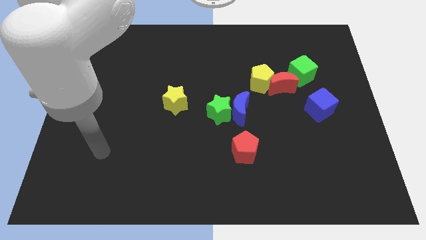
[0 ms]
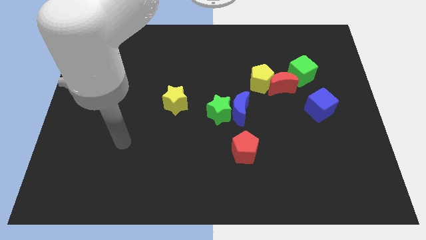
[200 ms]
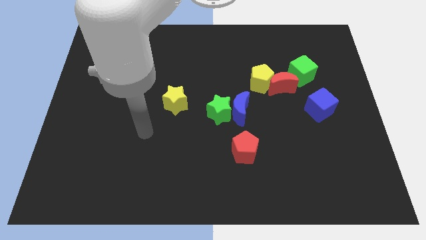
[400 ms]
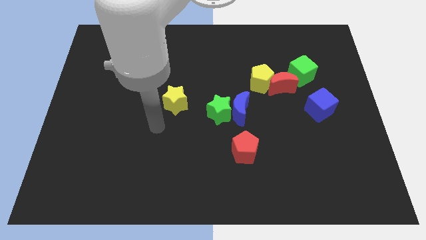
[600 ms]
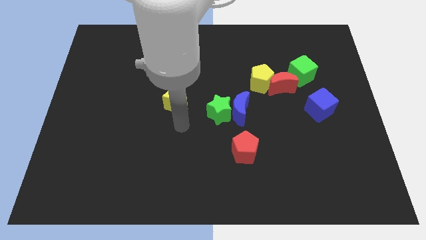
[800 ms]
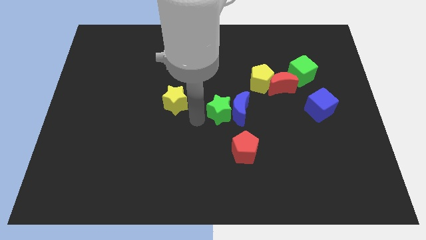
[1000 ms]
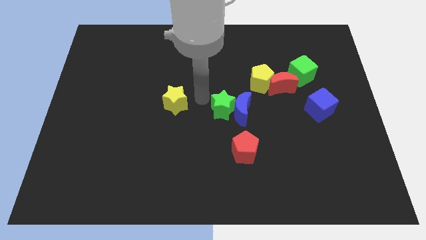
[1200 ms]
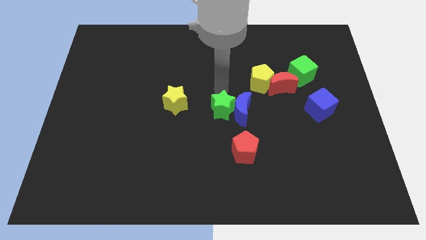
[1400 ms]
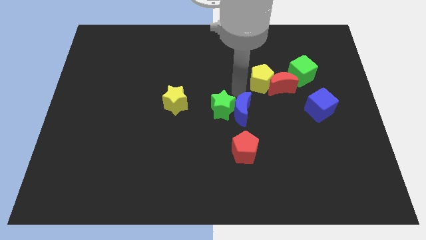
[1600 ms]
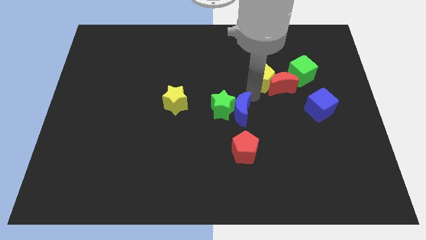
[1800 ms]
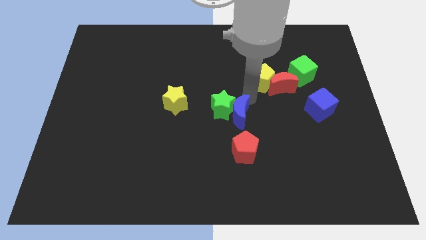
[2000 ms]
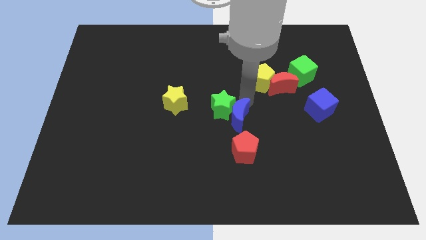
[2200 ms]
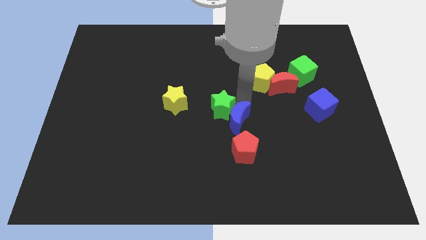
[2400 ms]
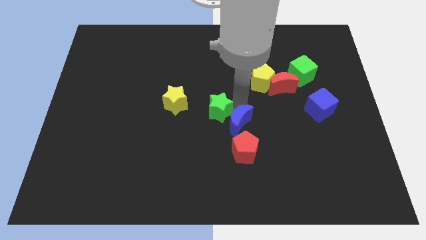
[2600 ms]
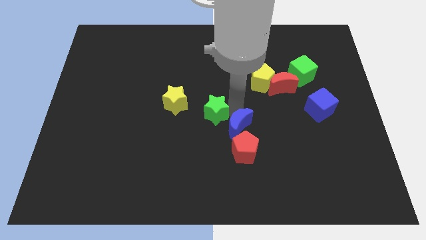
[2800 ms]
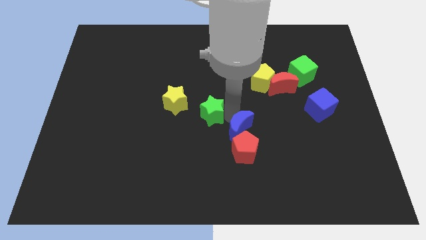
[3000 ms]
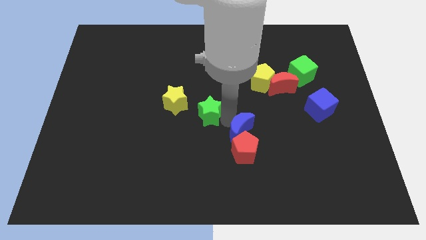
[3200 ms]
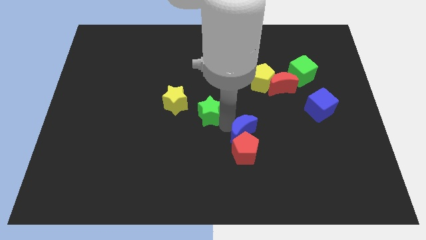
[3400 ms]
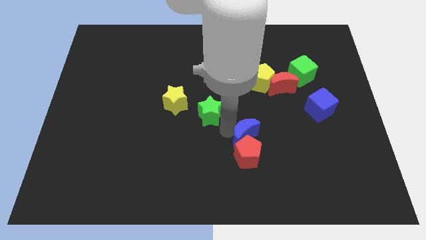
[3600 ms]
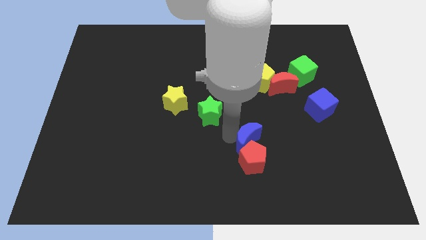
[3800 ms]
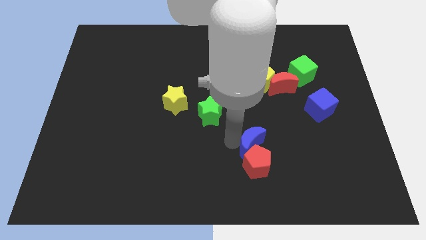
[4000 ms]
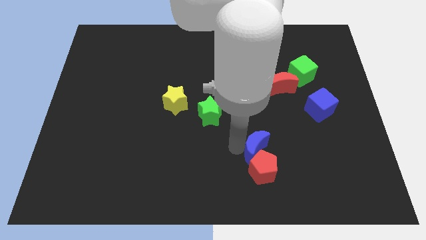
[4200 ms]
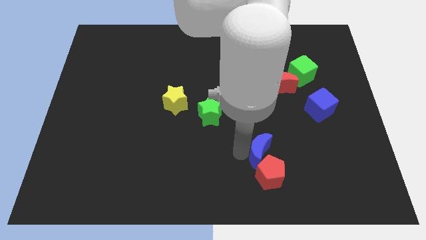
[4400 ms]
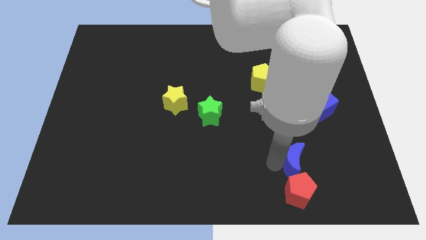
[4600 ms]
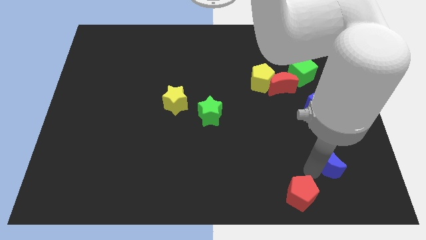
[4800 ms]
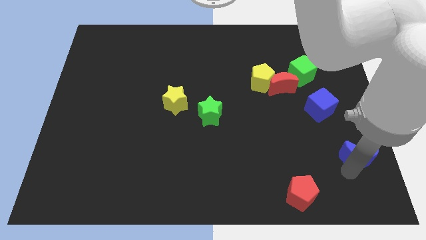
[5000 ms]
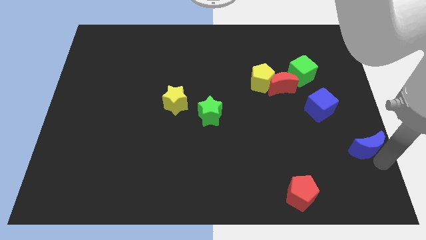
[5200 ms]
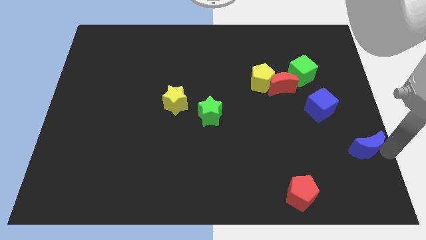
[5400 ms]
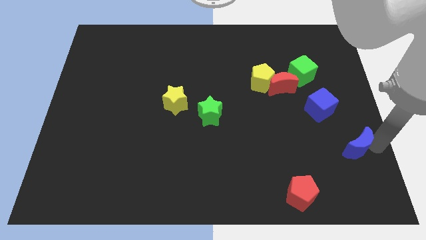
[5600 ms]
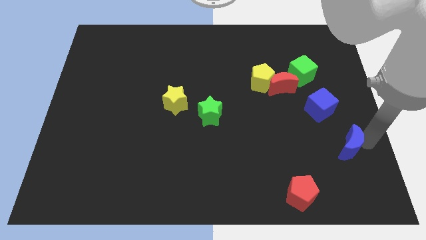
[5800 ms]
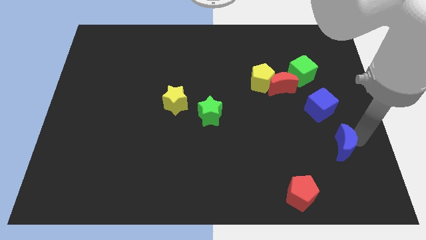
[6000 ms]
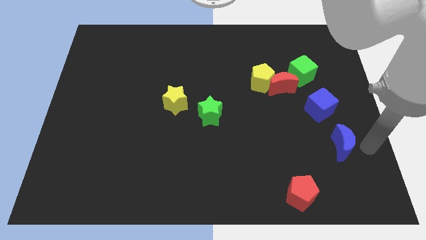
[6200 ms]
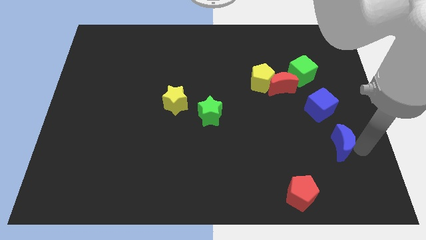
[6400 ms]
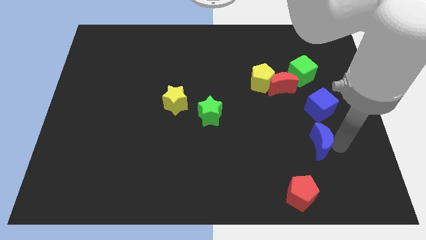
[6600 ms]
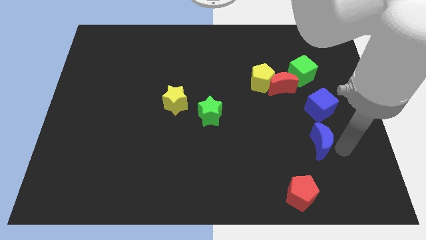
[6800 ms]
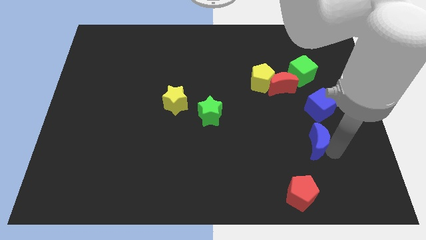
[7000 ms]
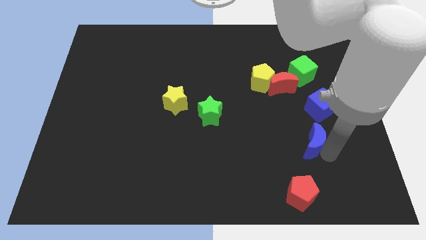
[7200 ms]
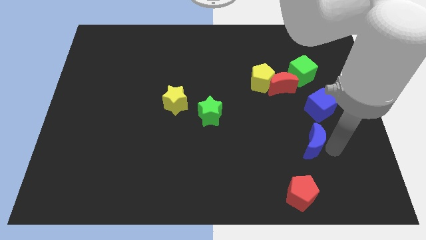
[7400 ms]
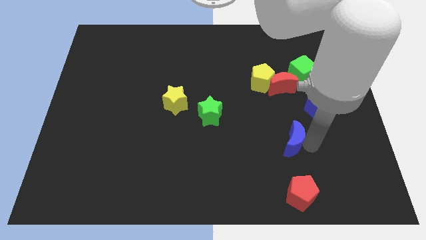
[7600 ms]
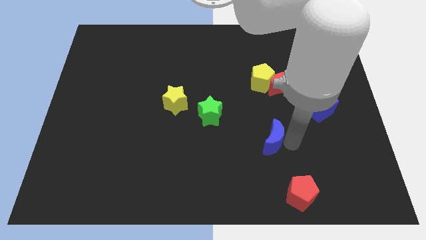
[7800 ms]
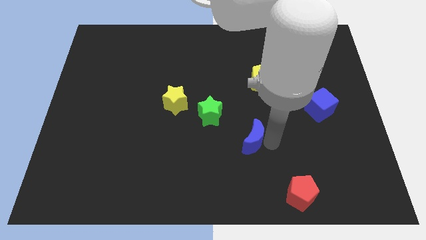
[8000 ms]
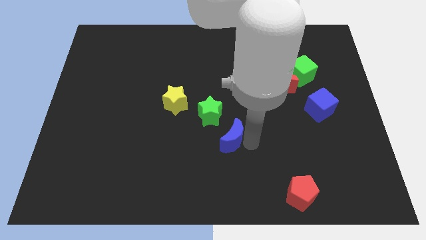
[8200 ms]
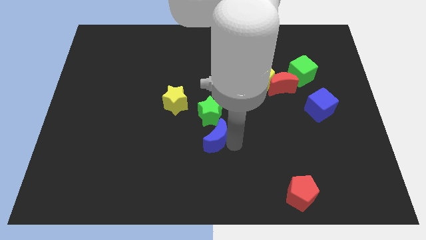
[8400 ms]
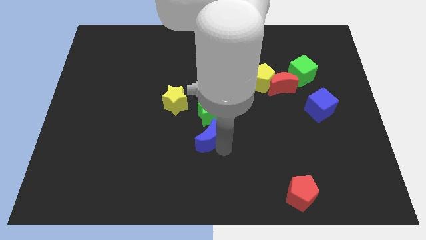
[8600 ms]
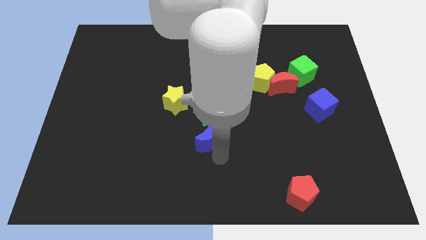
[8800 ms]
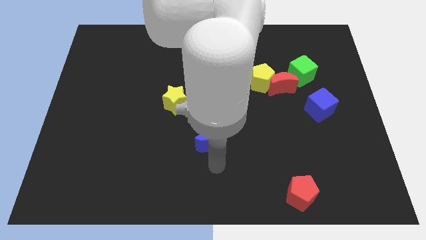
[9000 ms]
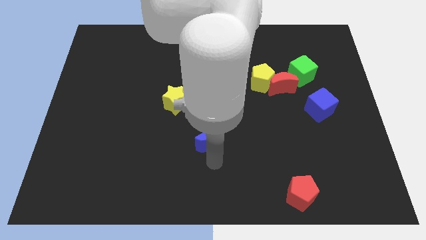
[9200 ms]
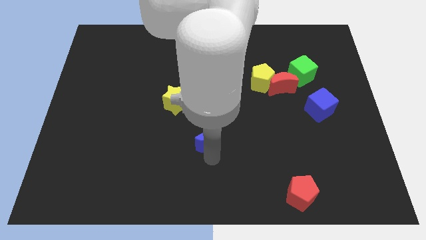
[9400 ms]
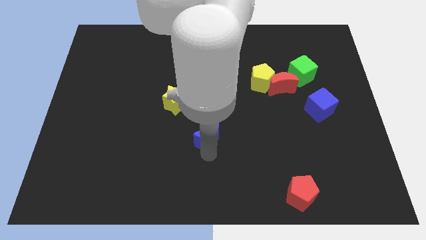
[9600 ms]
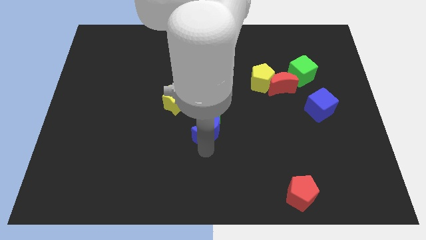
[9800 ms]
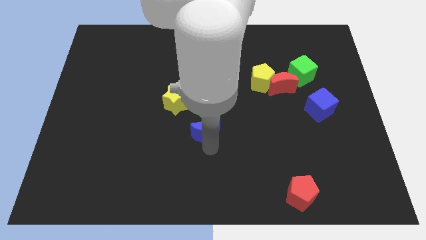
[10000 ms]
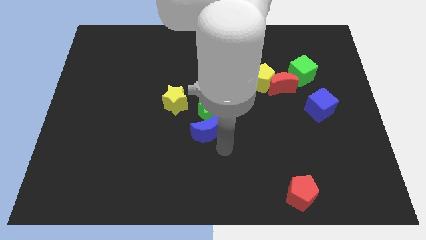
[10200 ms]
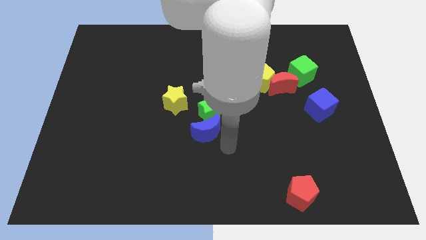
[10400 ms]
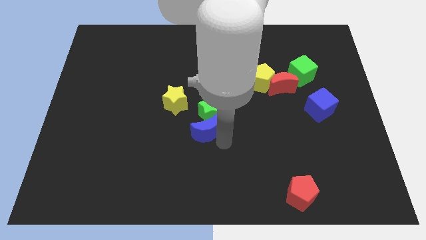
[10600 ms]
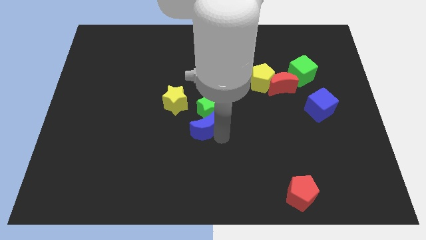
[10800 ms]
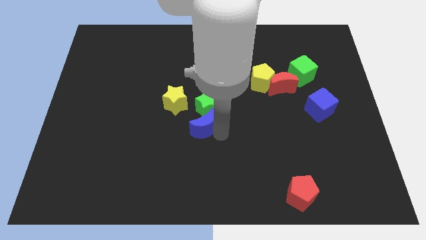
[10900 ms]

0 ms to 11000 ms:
push the blue moon left slightly

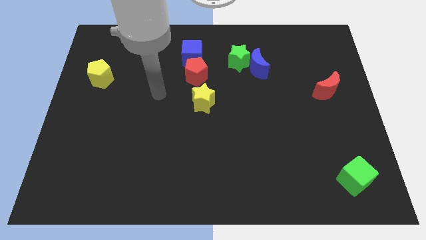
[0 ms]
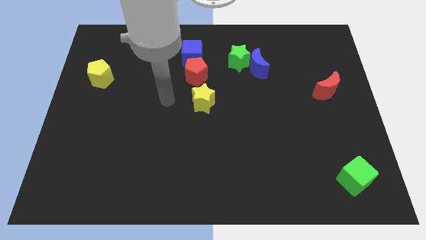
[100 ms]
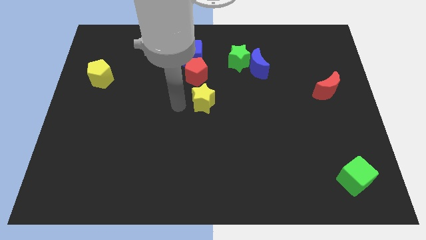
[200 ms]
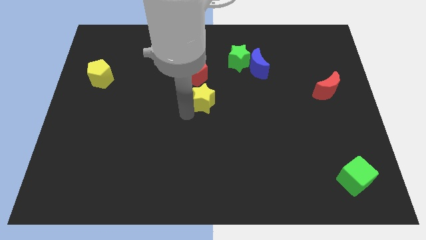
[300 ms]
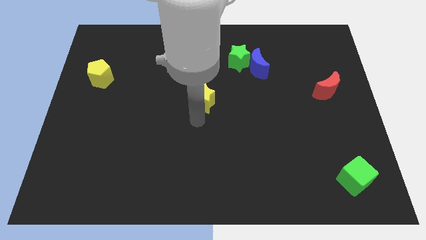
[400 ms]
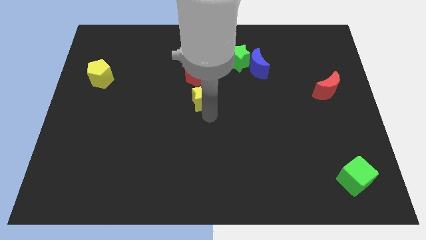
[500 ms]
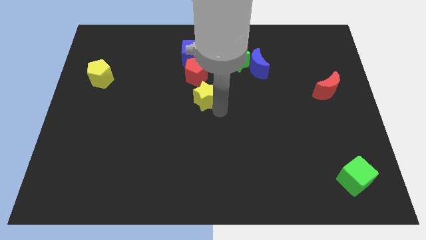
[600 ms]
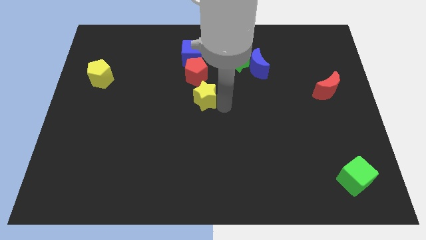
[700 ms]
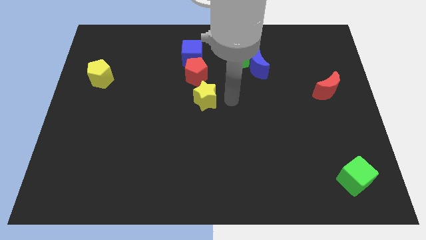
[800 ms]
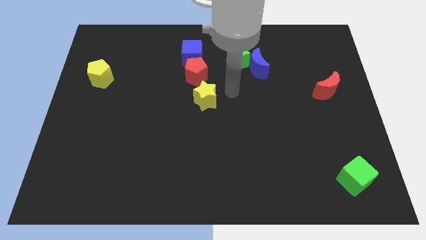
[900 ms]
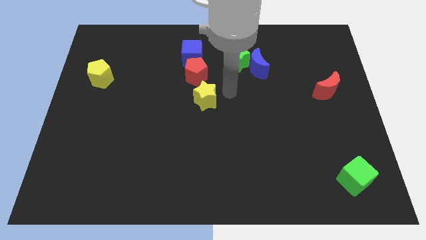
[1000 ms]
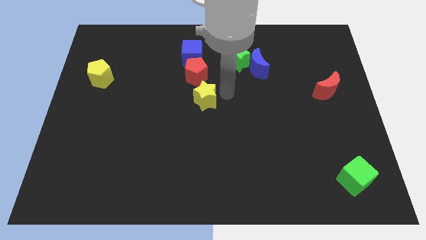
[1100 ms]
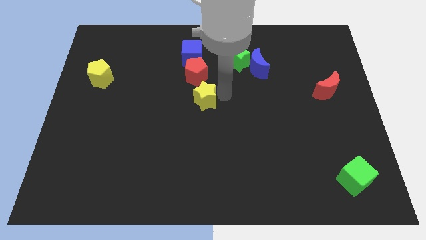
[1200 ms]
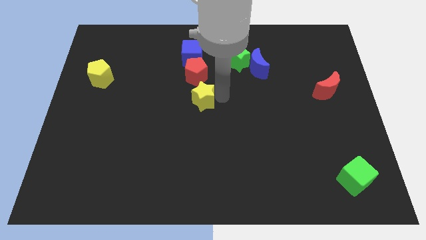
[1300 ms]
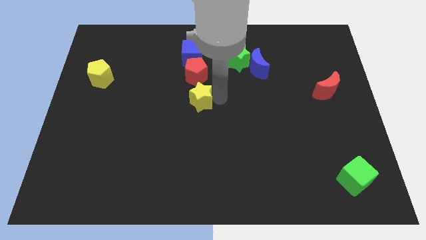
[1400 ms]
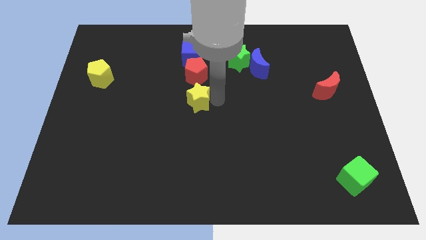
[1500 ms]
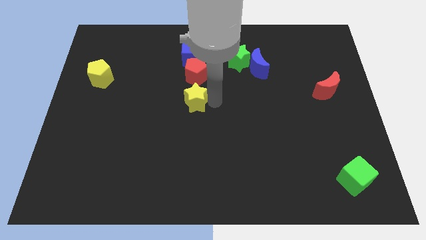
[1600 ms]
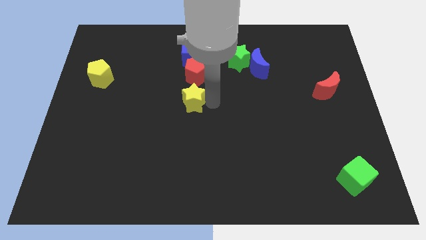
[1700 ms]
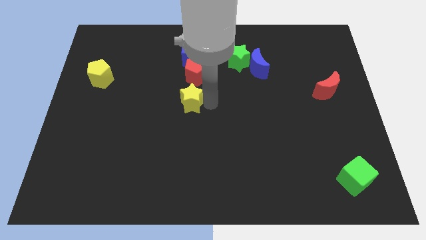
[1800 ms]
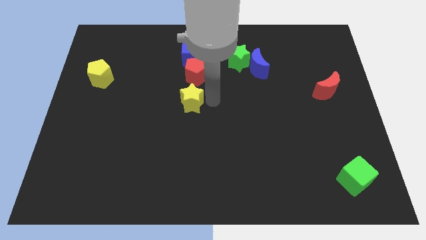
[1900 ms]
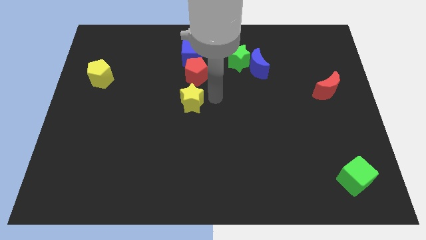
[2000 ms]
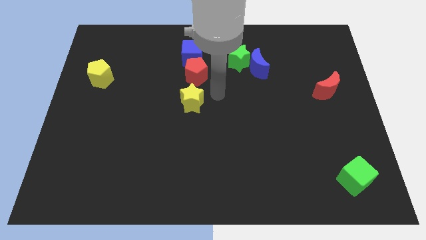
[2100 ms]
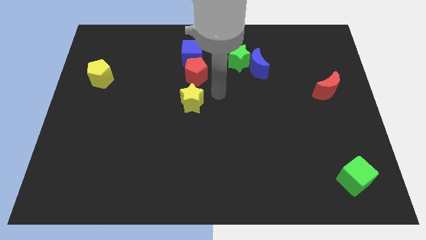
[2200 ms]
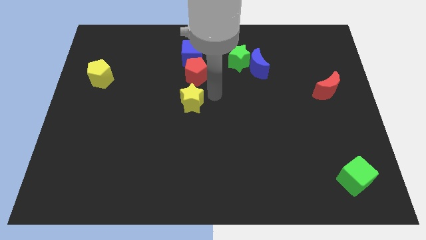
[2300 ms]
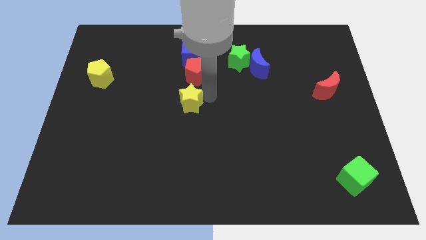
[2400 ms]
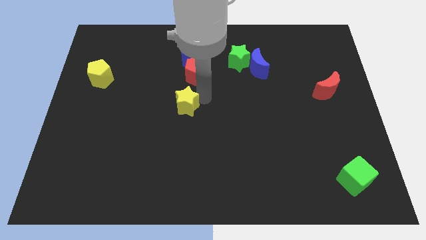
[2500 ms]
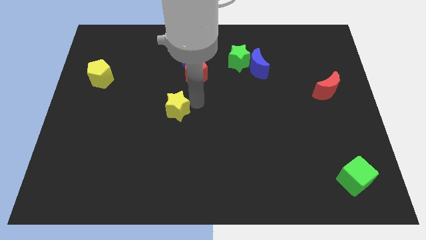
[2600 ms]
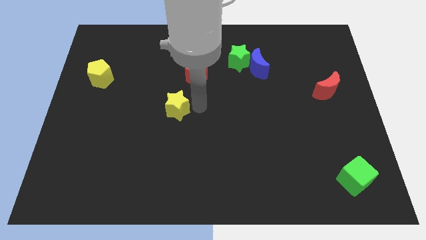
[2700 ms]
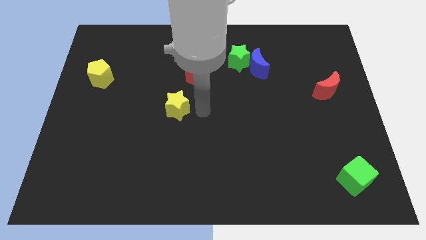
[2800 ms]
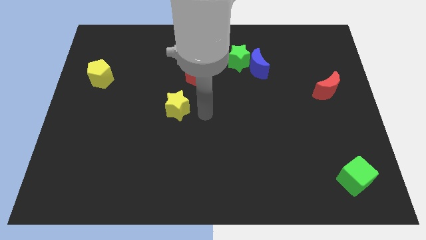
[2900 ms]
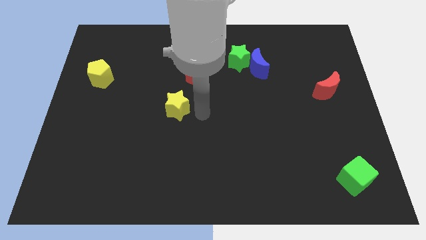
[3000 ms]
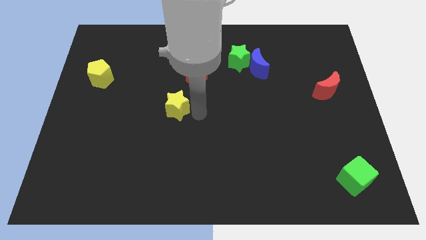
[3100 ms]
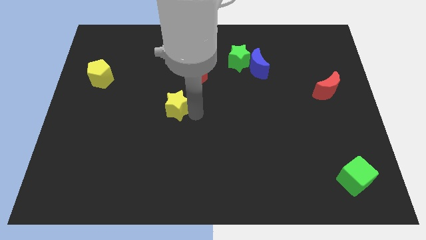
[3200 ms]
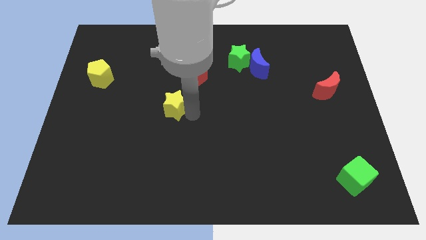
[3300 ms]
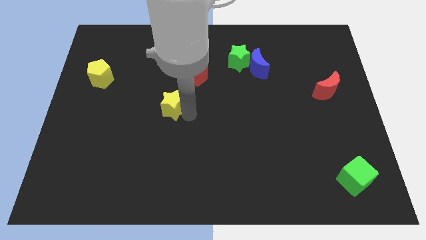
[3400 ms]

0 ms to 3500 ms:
move the yellow star to the left a little
